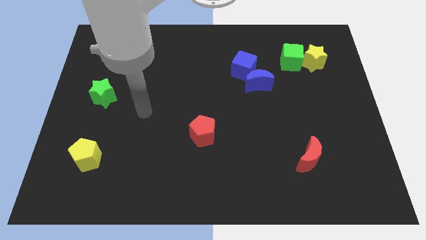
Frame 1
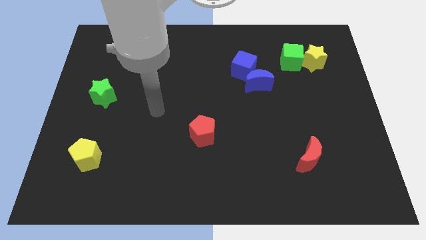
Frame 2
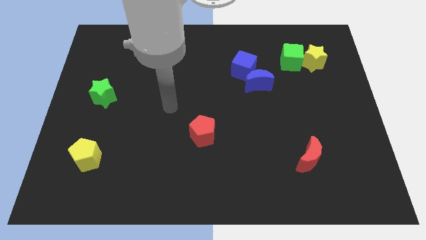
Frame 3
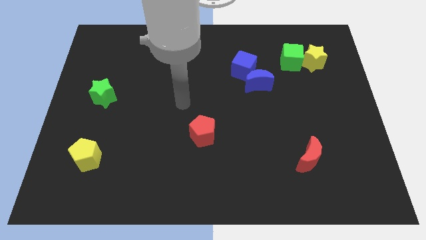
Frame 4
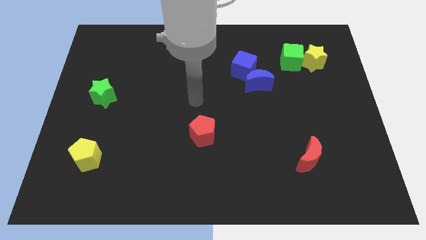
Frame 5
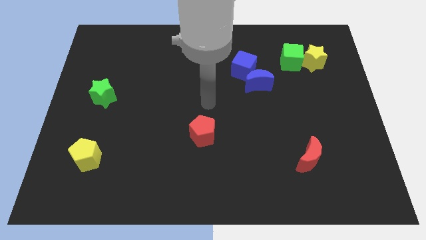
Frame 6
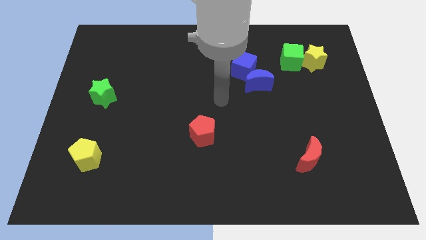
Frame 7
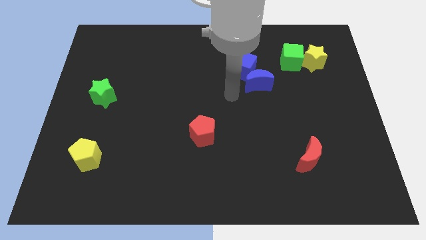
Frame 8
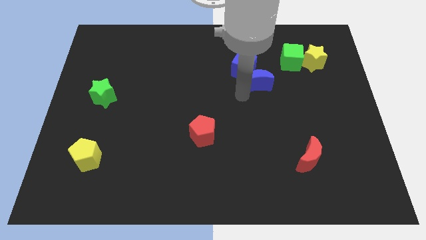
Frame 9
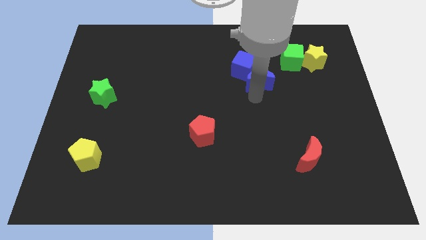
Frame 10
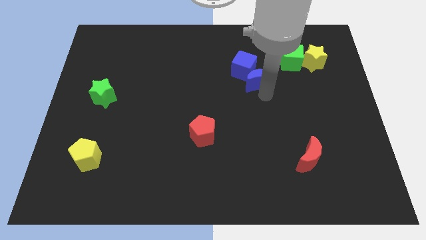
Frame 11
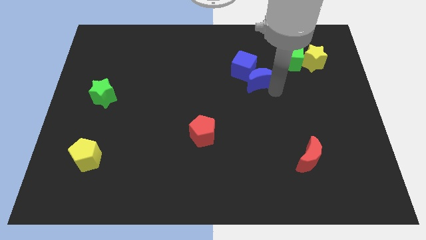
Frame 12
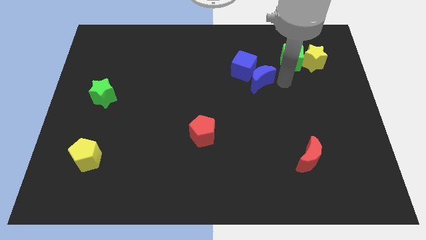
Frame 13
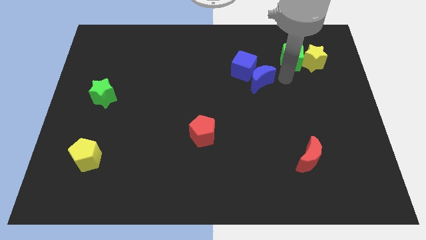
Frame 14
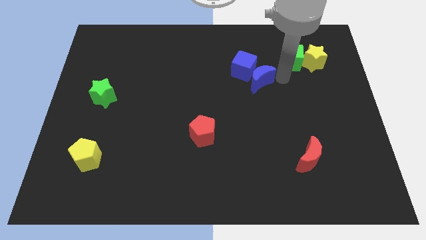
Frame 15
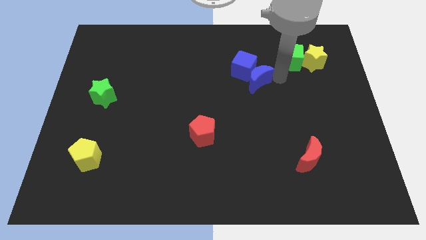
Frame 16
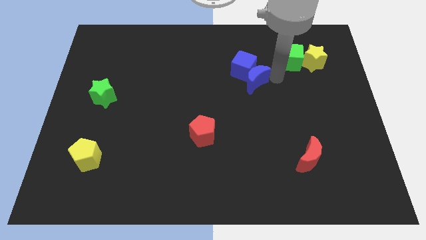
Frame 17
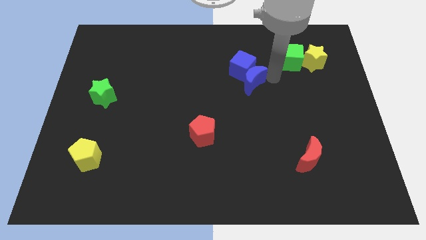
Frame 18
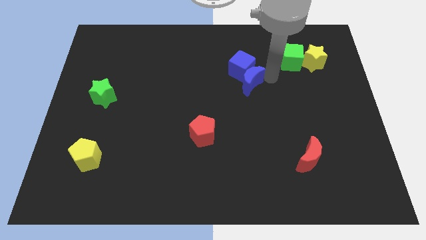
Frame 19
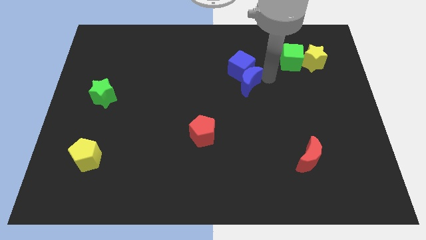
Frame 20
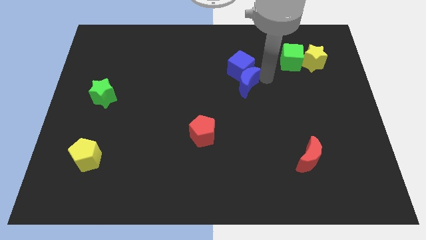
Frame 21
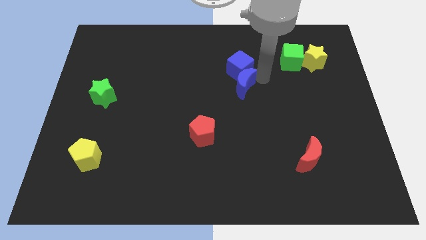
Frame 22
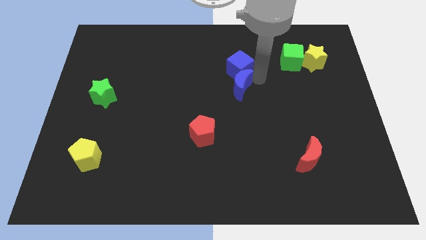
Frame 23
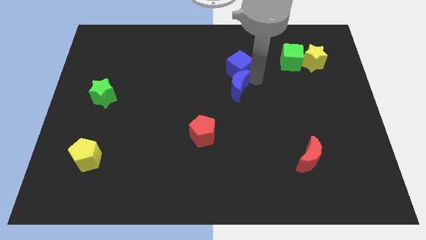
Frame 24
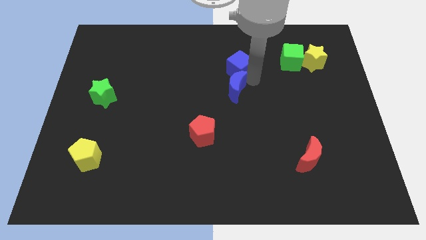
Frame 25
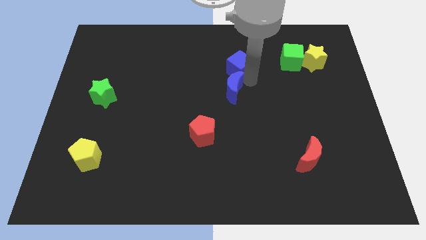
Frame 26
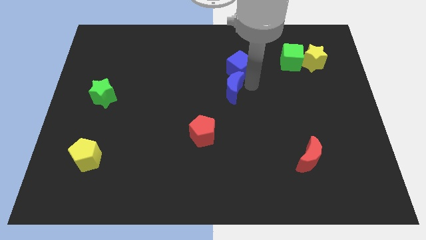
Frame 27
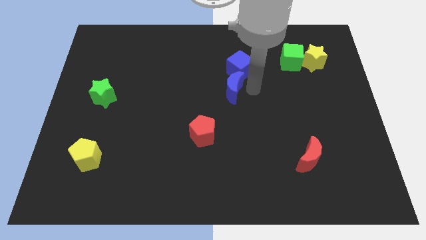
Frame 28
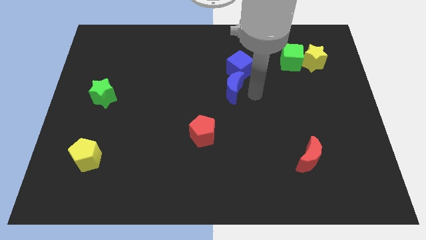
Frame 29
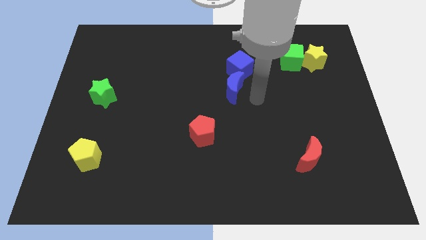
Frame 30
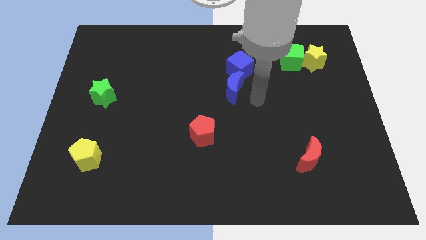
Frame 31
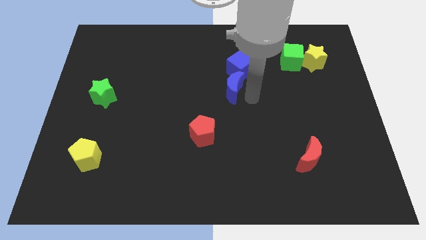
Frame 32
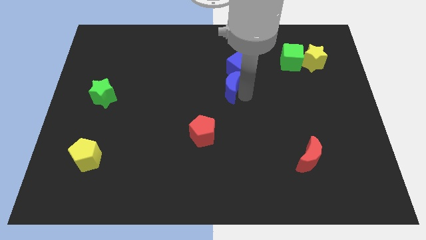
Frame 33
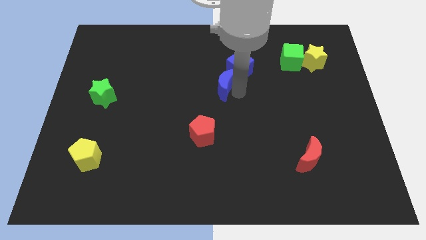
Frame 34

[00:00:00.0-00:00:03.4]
move the blue moon a little to the left

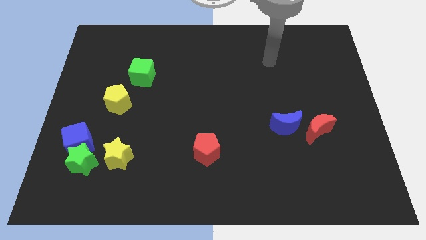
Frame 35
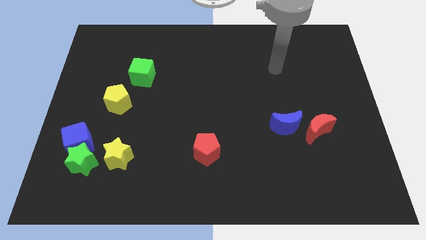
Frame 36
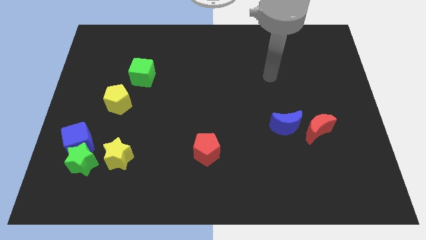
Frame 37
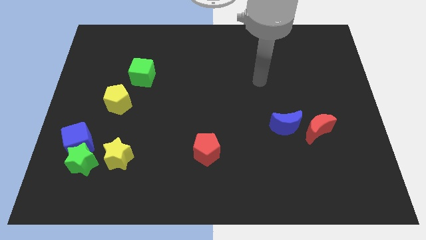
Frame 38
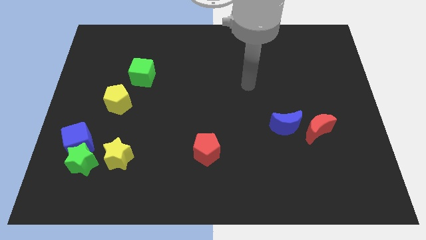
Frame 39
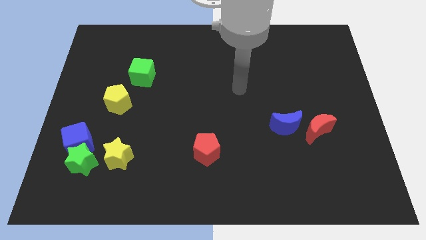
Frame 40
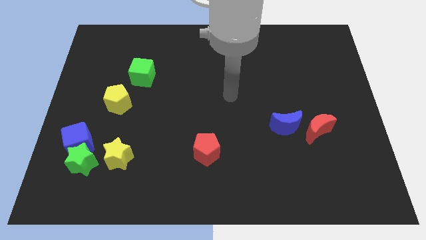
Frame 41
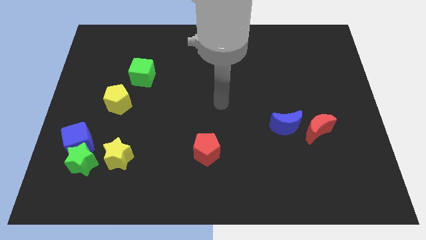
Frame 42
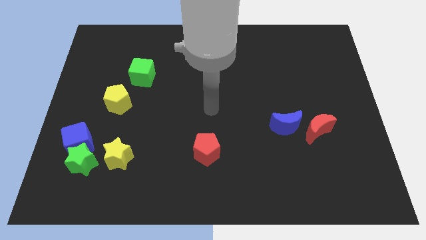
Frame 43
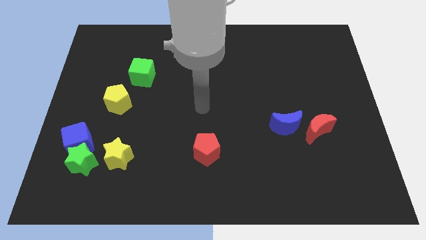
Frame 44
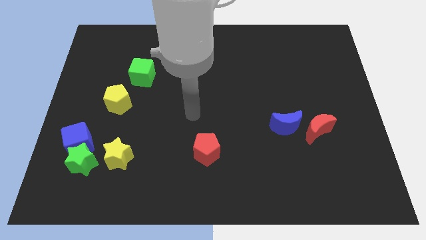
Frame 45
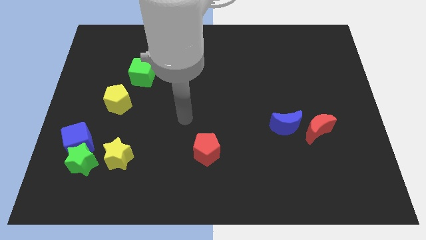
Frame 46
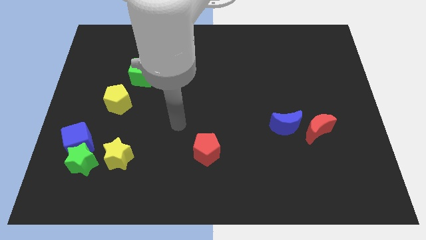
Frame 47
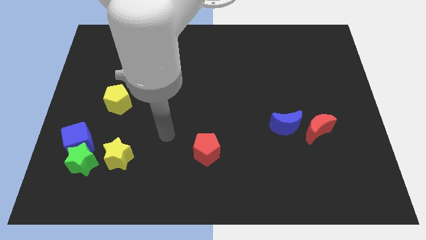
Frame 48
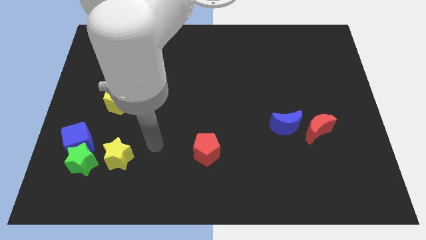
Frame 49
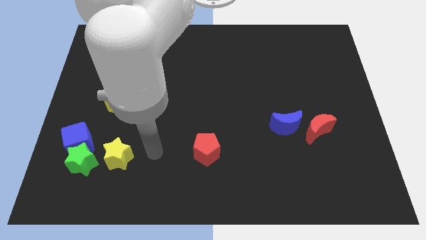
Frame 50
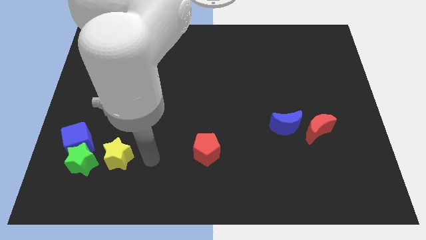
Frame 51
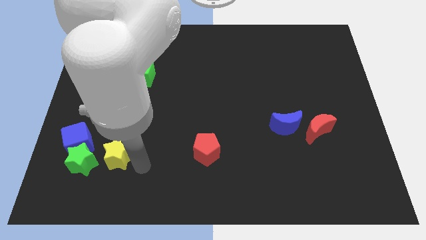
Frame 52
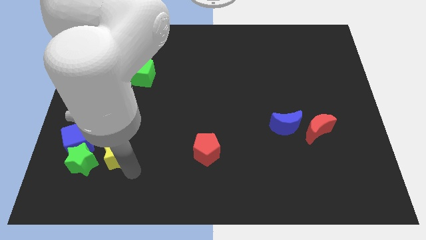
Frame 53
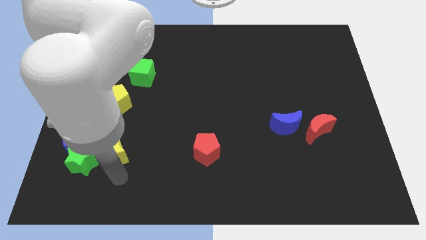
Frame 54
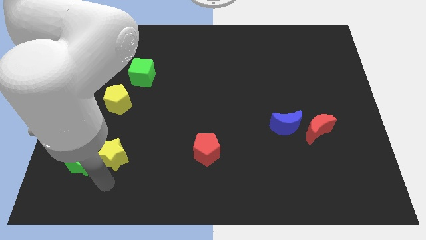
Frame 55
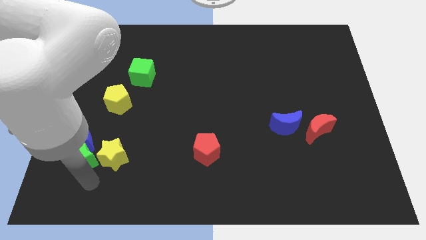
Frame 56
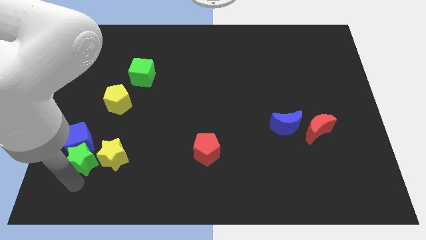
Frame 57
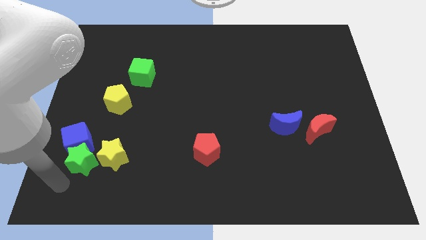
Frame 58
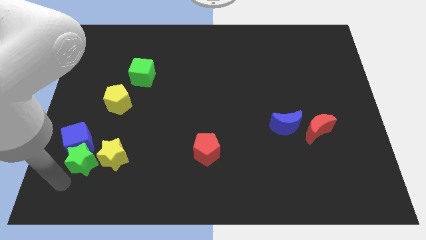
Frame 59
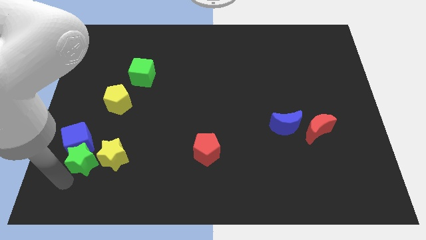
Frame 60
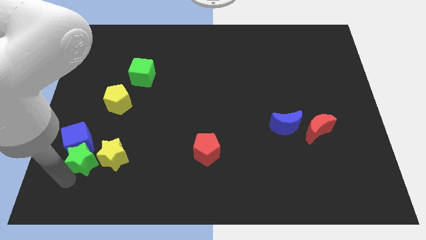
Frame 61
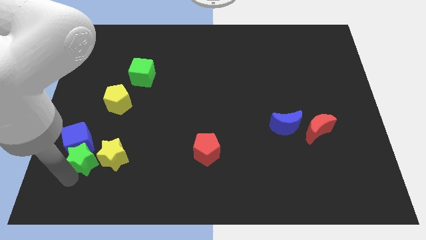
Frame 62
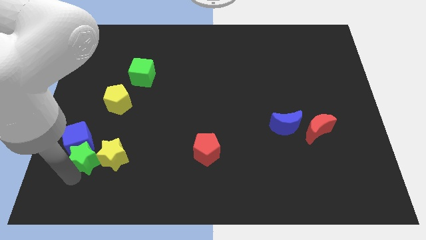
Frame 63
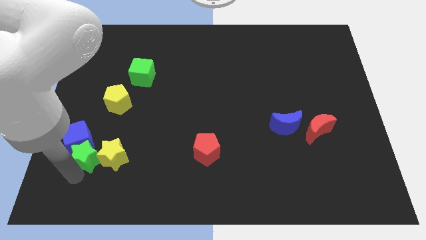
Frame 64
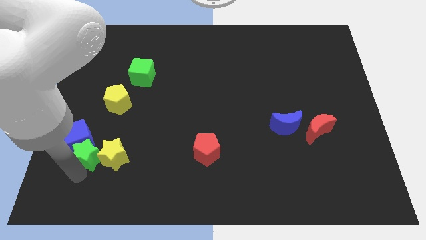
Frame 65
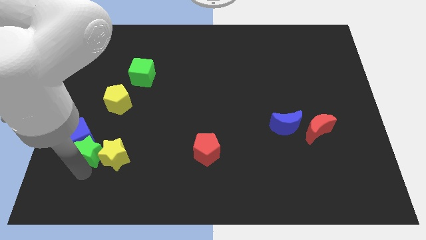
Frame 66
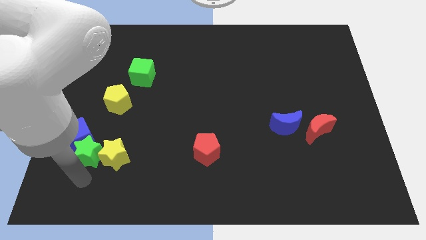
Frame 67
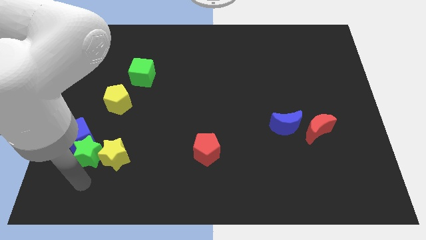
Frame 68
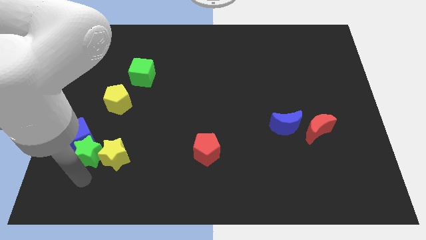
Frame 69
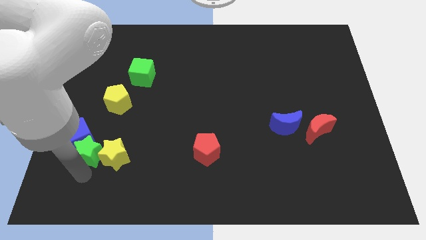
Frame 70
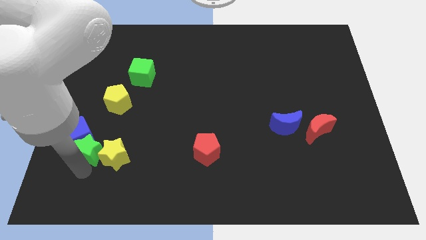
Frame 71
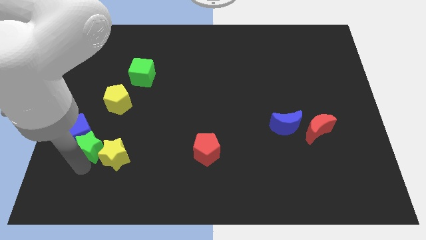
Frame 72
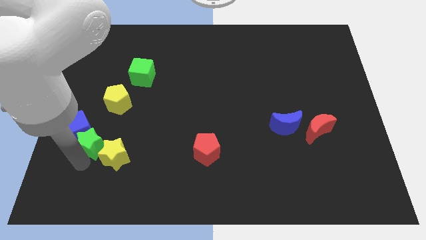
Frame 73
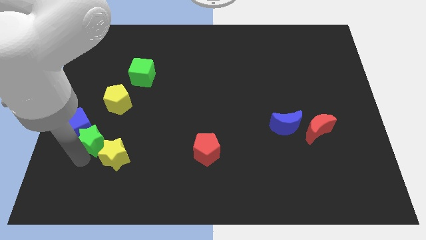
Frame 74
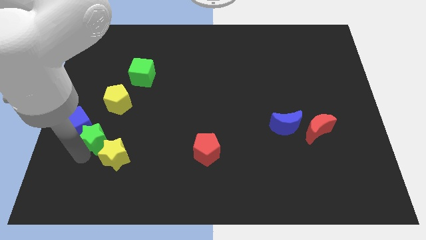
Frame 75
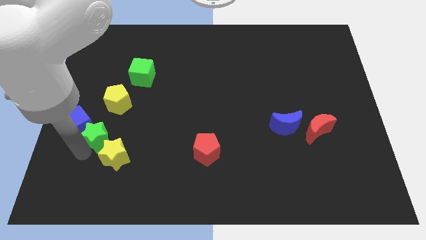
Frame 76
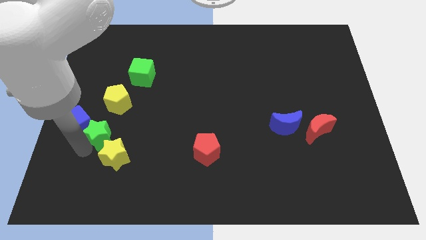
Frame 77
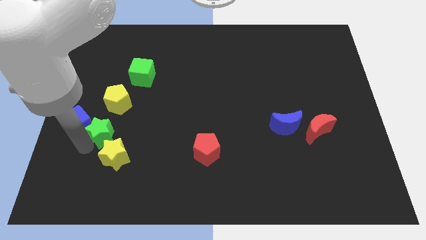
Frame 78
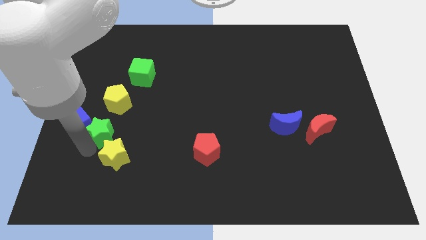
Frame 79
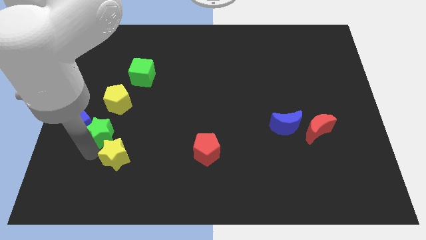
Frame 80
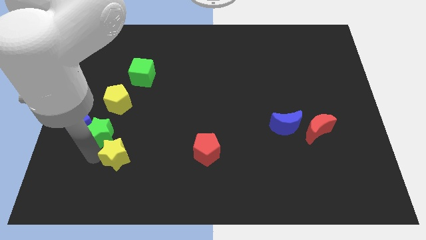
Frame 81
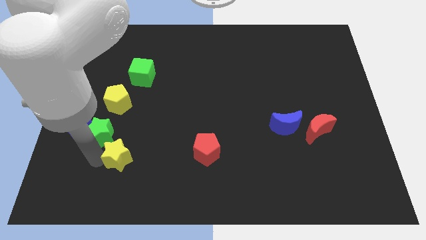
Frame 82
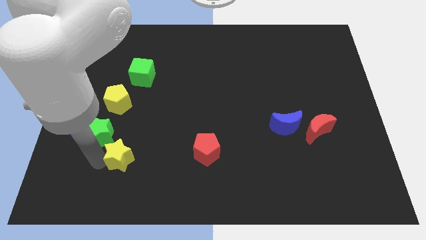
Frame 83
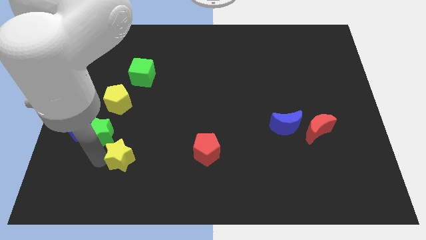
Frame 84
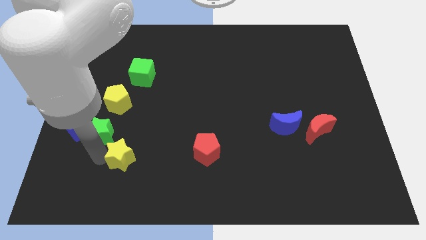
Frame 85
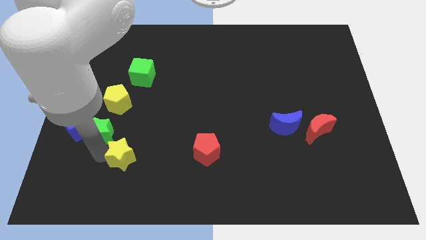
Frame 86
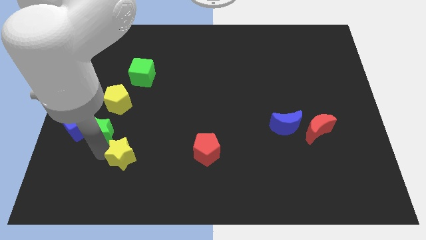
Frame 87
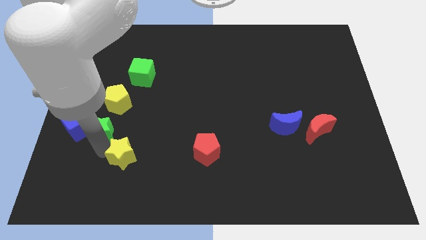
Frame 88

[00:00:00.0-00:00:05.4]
slide the green star slightly up
